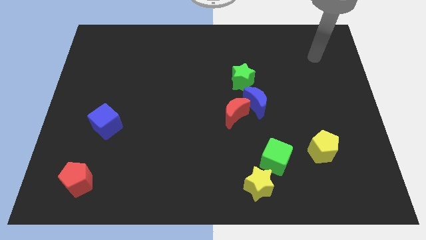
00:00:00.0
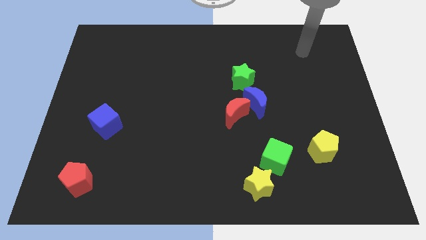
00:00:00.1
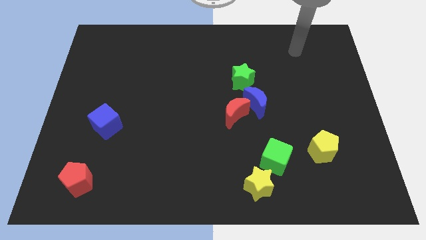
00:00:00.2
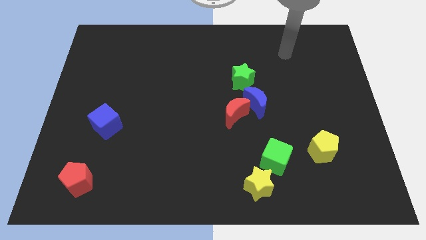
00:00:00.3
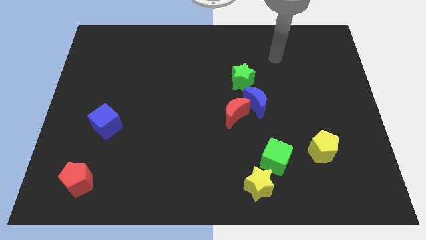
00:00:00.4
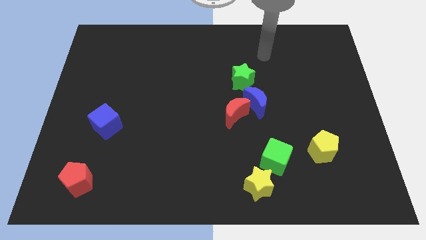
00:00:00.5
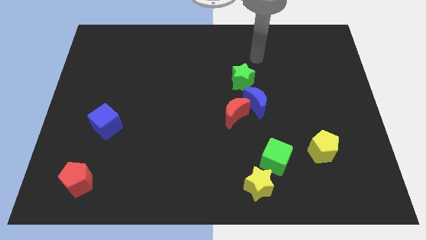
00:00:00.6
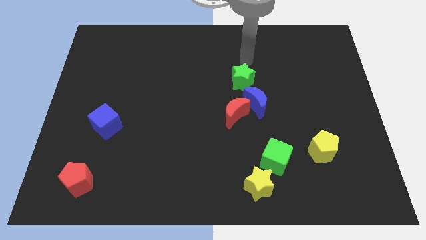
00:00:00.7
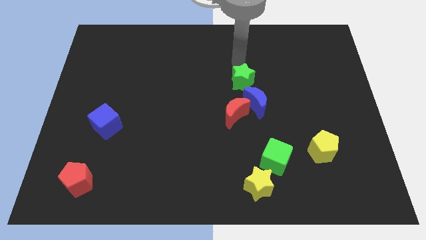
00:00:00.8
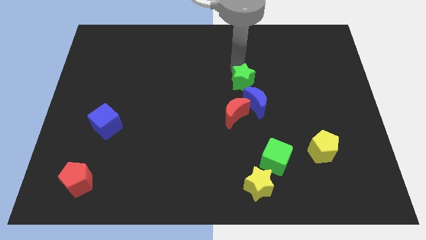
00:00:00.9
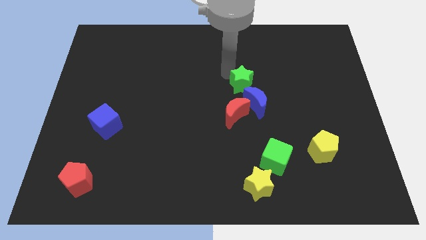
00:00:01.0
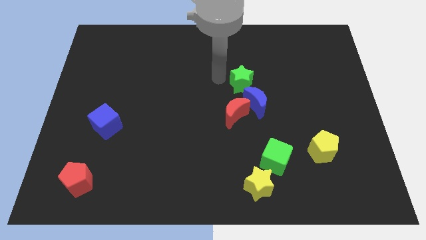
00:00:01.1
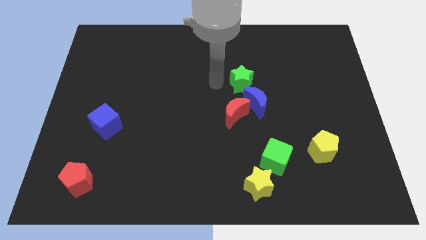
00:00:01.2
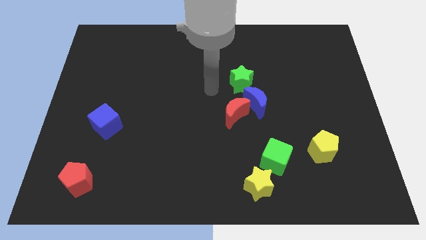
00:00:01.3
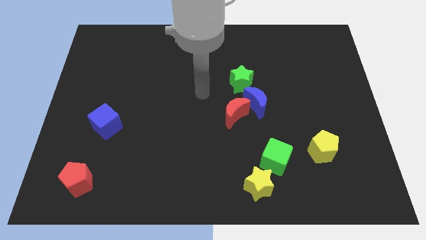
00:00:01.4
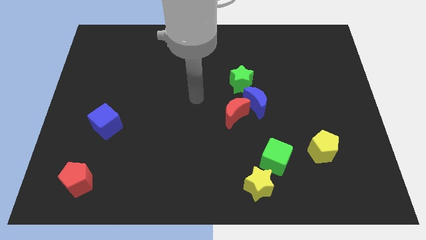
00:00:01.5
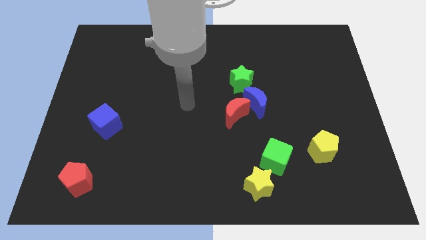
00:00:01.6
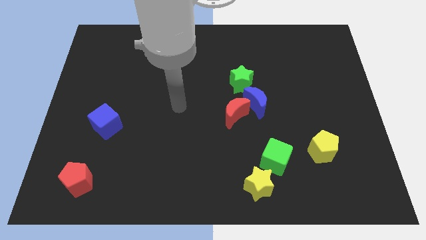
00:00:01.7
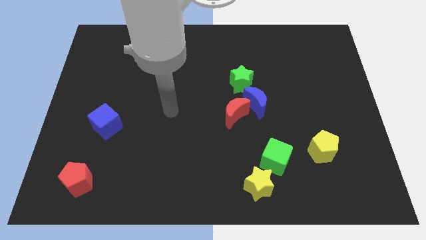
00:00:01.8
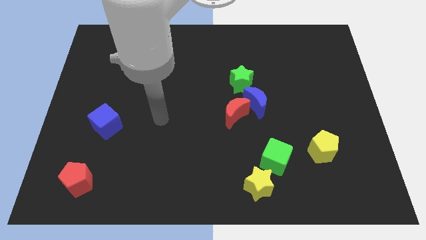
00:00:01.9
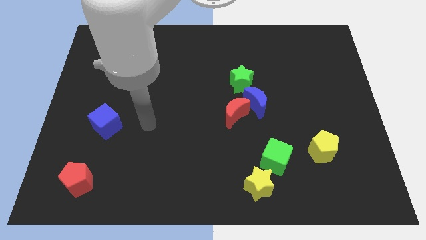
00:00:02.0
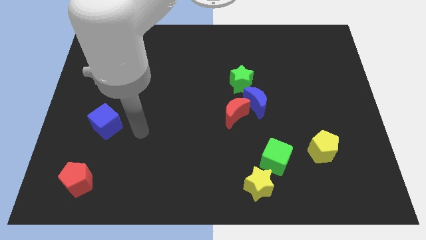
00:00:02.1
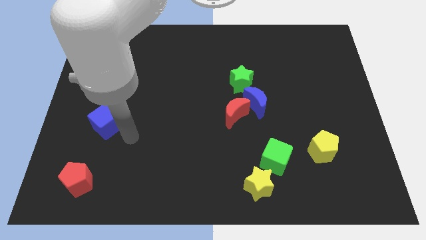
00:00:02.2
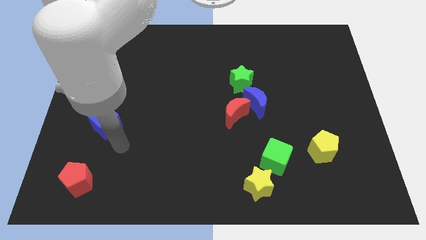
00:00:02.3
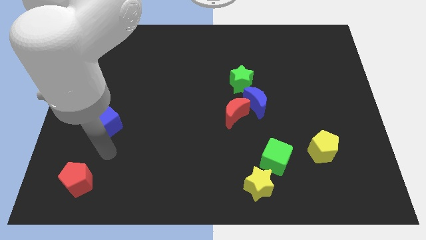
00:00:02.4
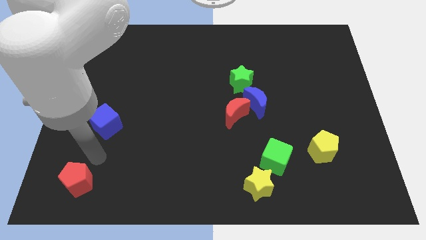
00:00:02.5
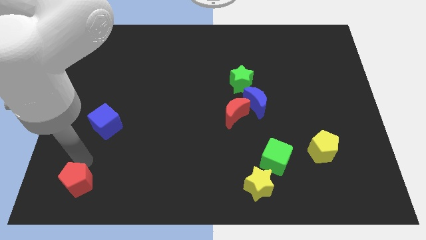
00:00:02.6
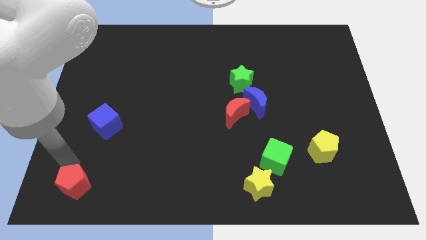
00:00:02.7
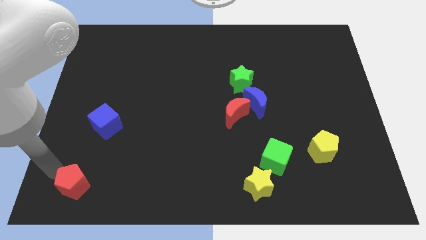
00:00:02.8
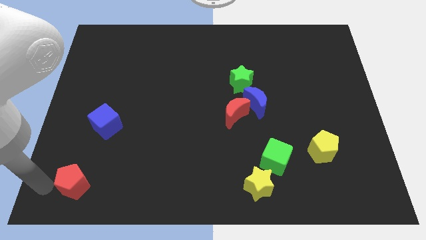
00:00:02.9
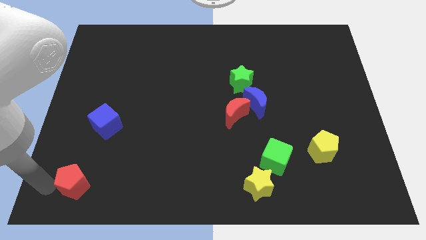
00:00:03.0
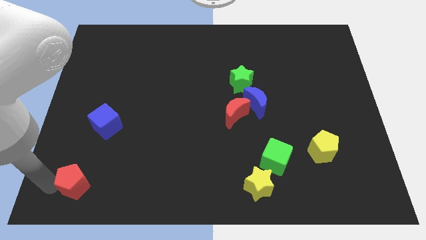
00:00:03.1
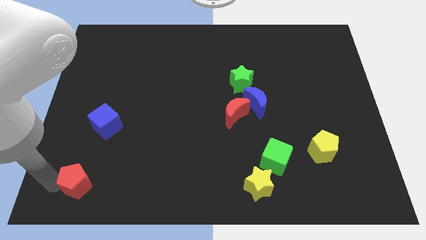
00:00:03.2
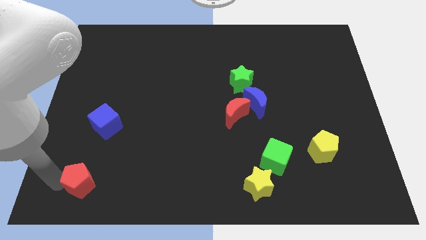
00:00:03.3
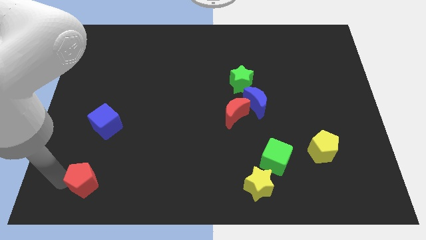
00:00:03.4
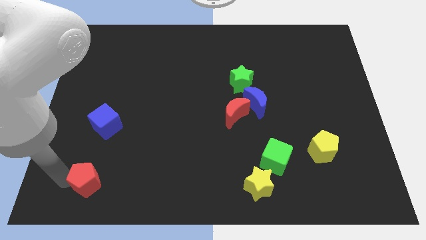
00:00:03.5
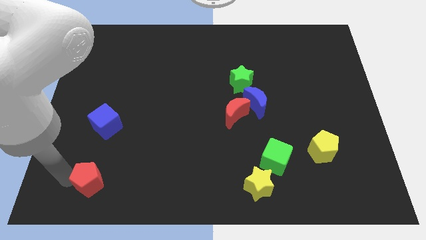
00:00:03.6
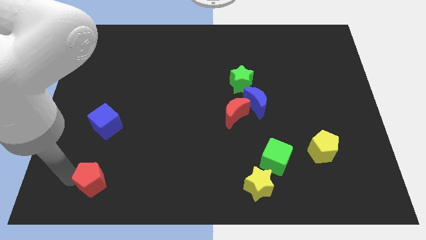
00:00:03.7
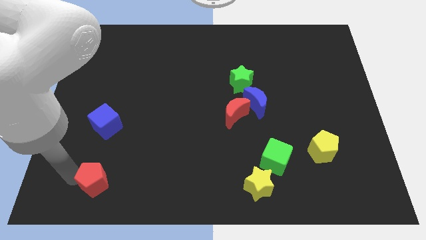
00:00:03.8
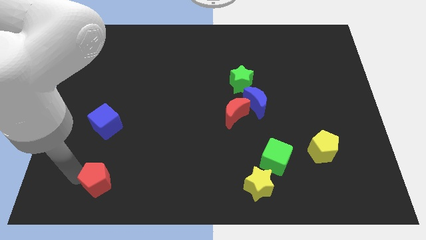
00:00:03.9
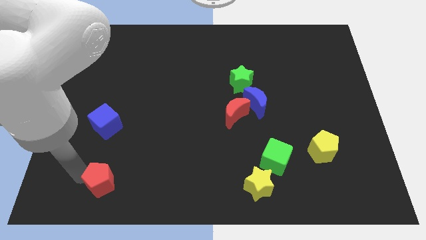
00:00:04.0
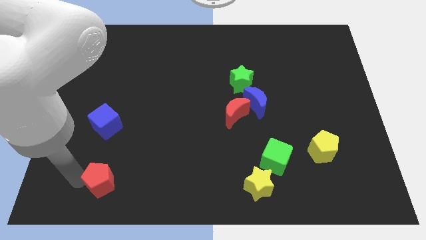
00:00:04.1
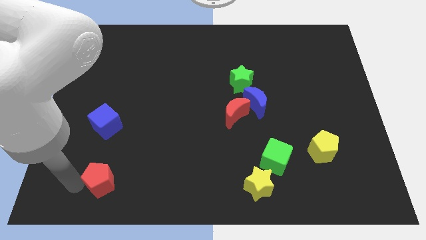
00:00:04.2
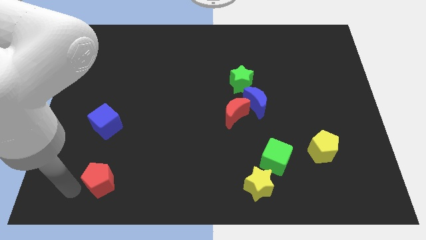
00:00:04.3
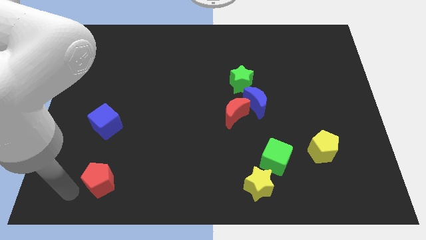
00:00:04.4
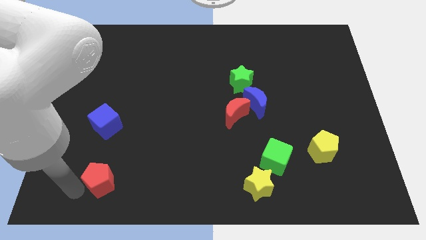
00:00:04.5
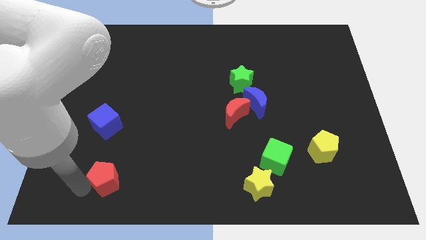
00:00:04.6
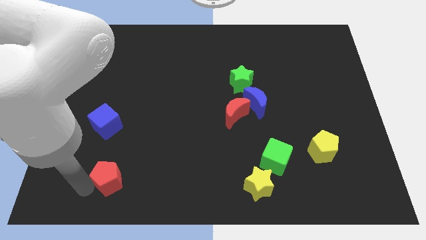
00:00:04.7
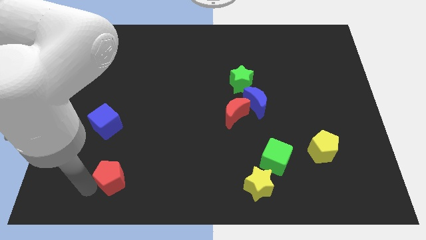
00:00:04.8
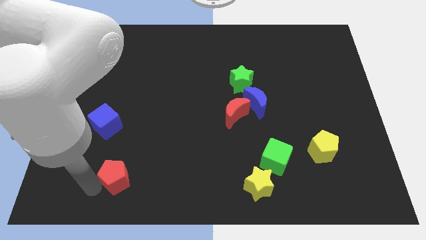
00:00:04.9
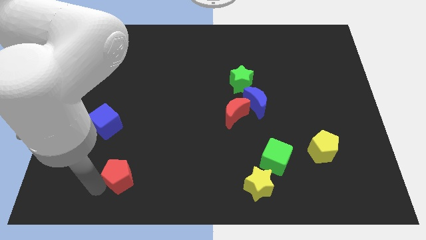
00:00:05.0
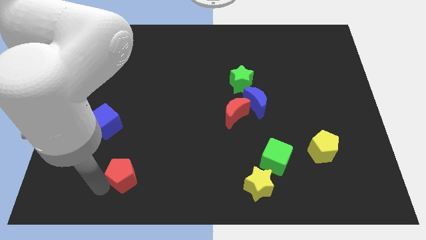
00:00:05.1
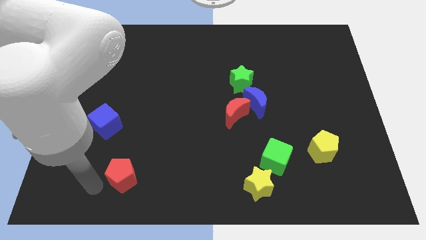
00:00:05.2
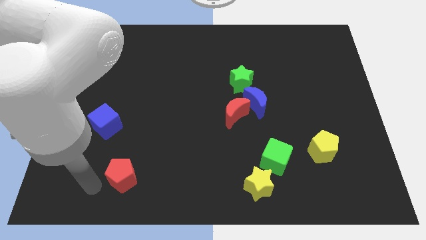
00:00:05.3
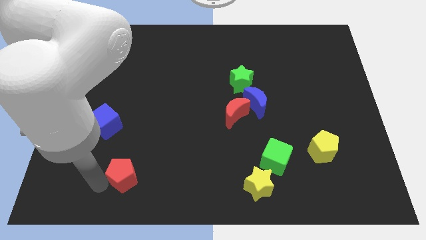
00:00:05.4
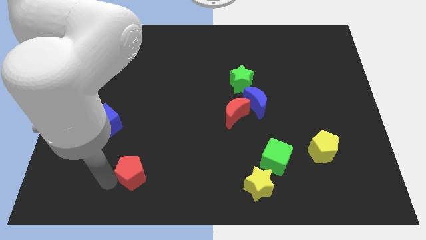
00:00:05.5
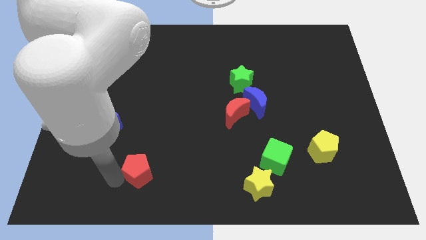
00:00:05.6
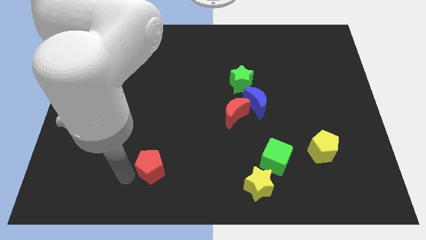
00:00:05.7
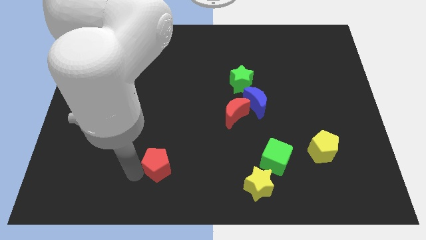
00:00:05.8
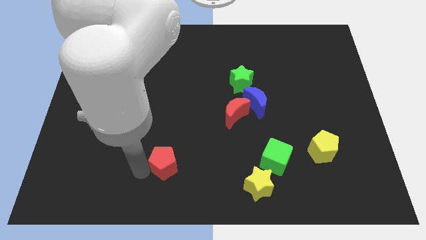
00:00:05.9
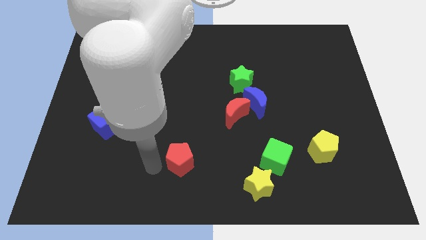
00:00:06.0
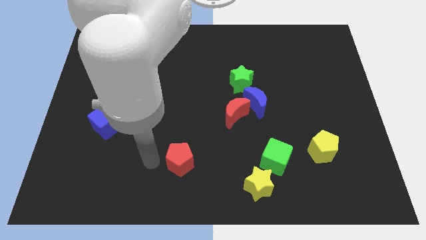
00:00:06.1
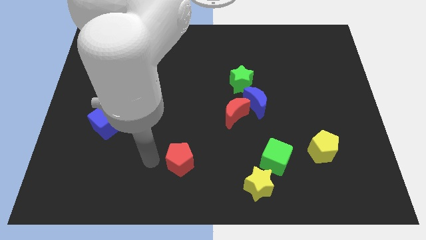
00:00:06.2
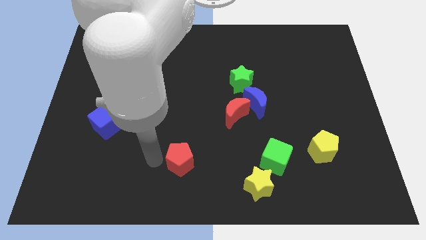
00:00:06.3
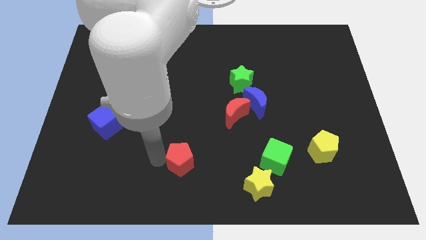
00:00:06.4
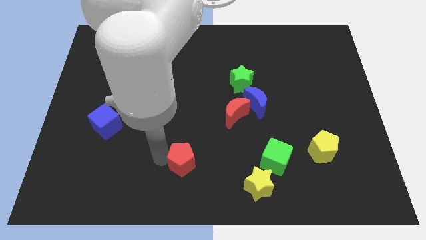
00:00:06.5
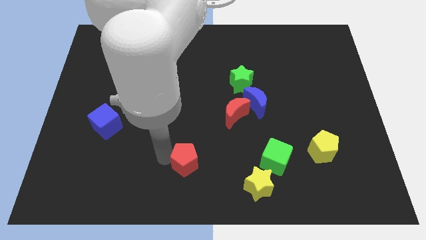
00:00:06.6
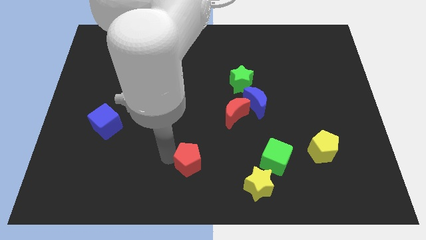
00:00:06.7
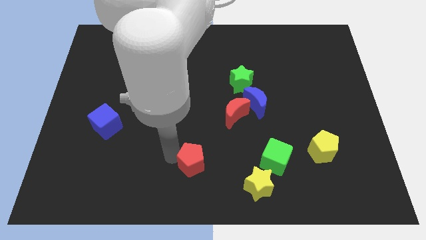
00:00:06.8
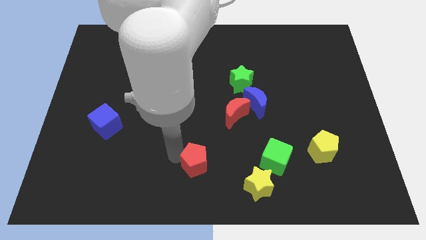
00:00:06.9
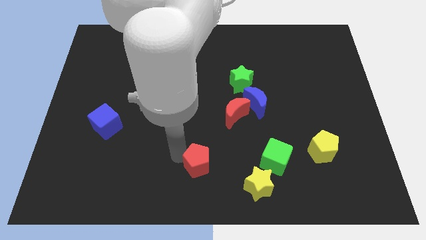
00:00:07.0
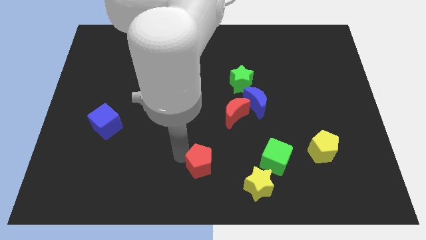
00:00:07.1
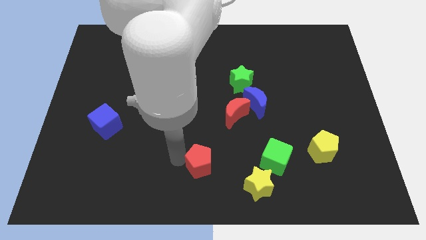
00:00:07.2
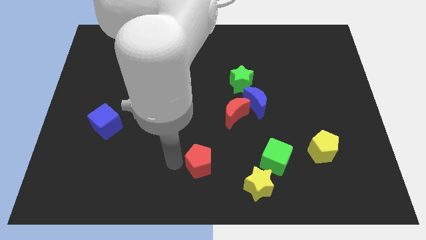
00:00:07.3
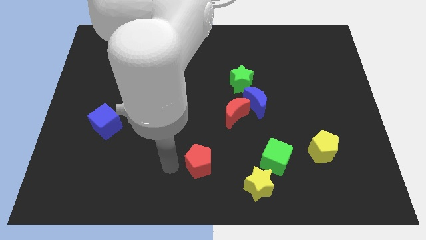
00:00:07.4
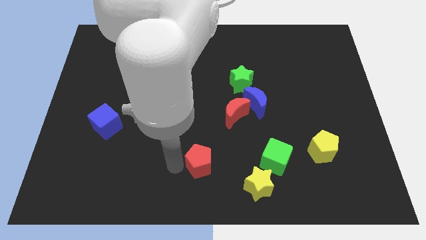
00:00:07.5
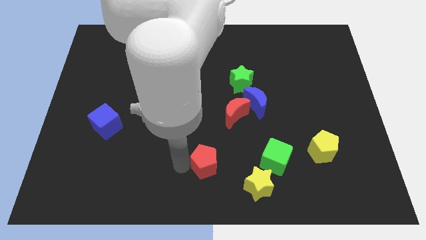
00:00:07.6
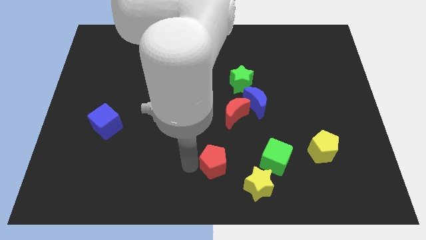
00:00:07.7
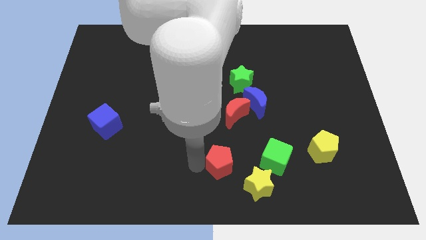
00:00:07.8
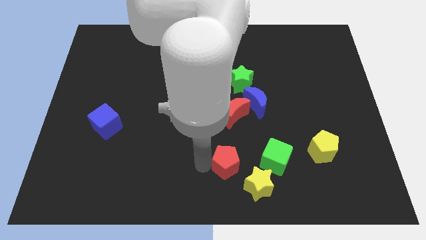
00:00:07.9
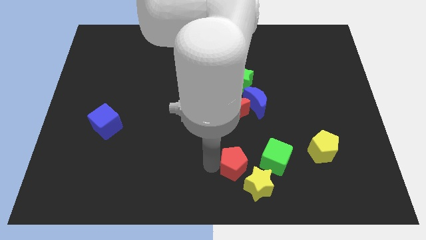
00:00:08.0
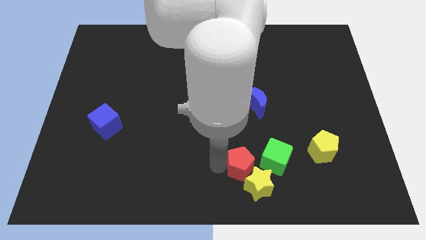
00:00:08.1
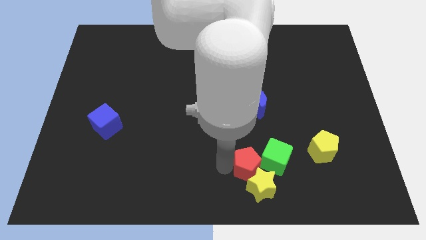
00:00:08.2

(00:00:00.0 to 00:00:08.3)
push the red pentagon next to the green cube
